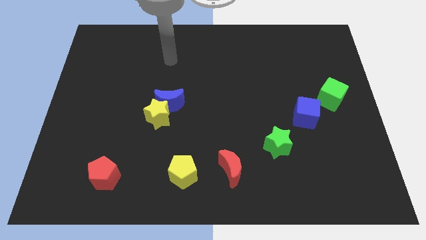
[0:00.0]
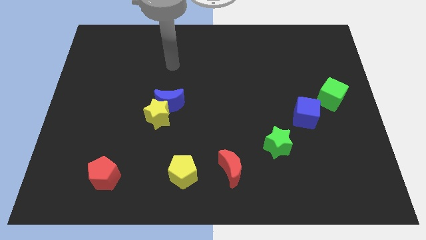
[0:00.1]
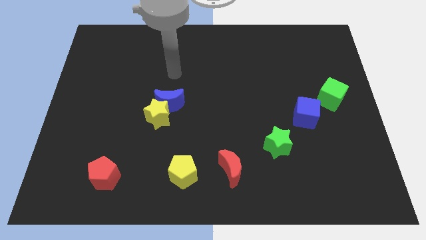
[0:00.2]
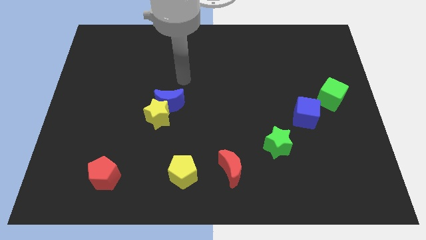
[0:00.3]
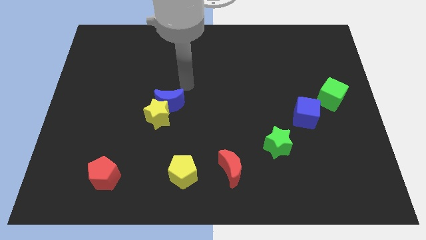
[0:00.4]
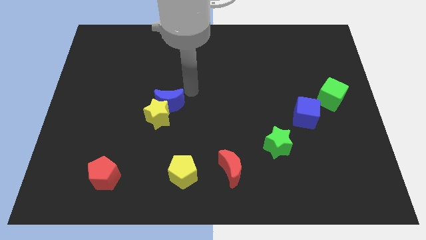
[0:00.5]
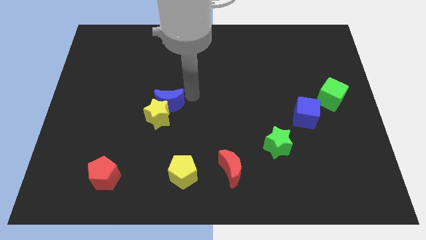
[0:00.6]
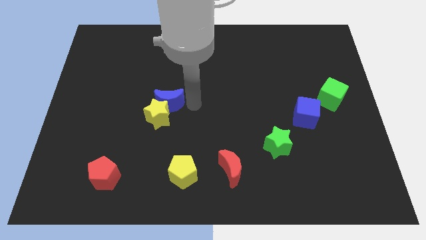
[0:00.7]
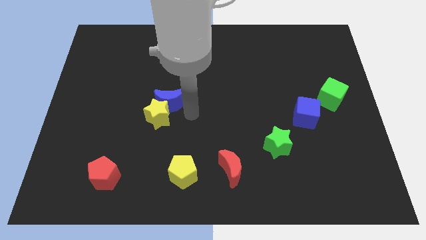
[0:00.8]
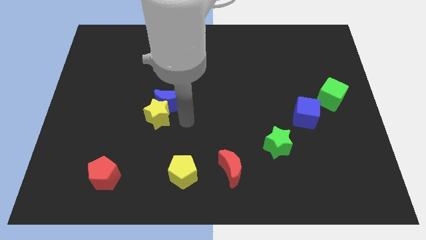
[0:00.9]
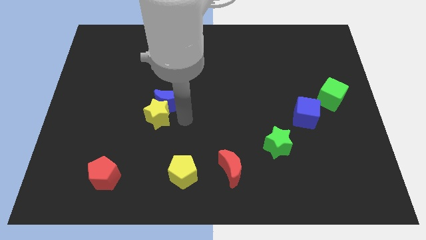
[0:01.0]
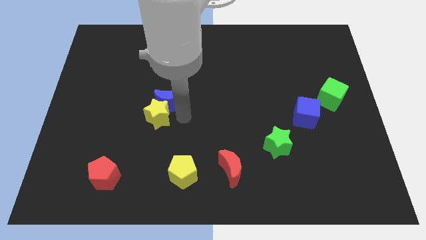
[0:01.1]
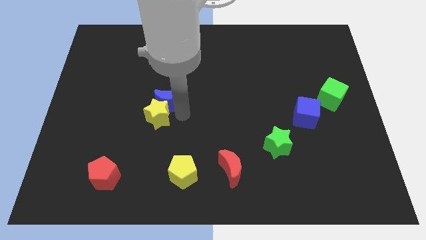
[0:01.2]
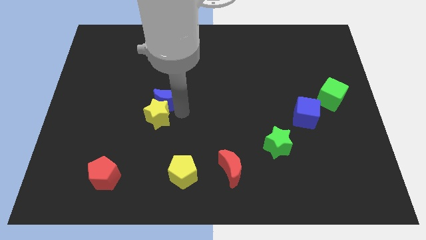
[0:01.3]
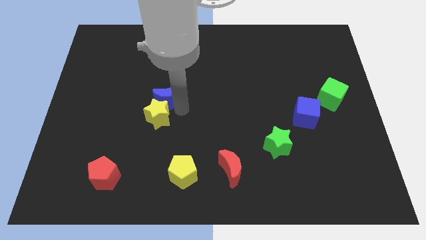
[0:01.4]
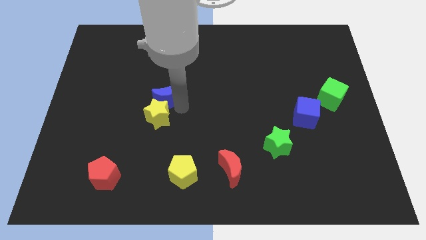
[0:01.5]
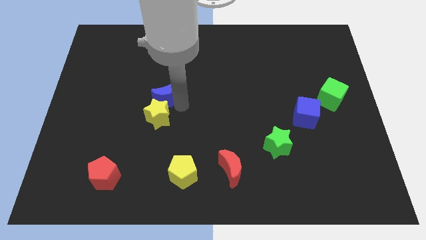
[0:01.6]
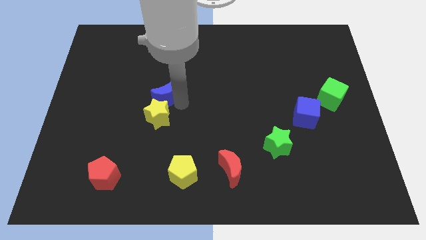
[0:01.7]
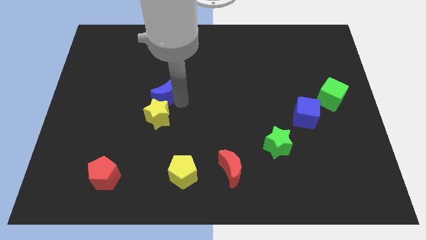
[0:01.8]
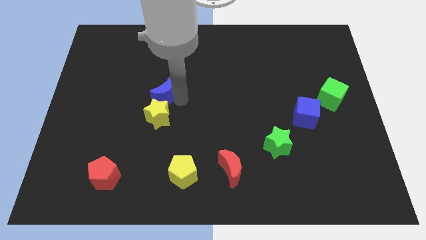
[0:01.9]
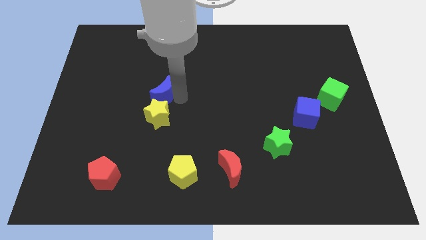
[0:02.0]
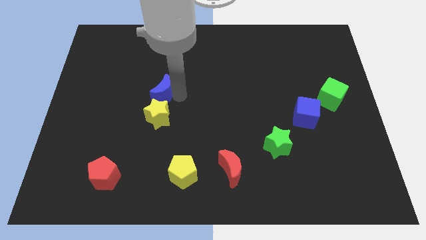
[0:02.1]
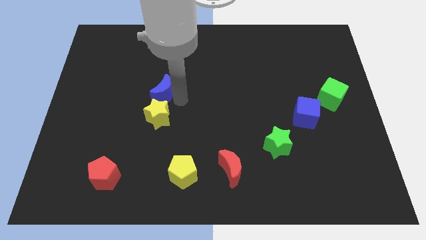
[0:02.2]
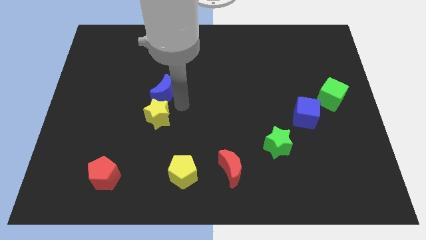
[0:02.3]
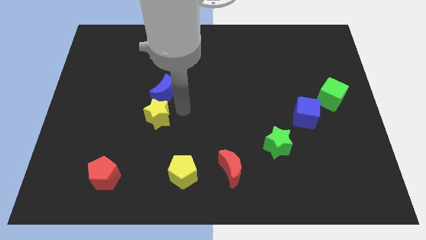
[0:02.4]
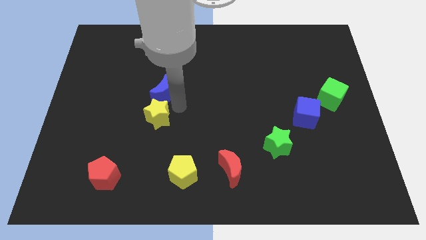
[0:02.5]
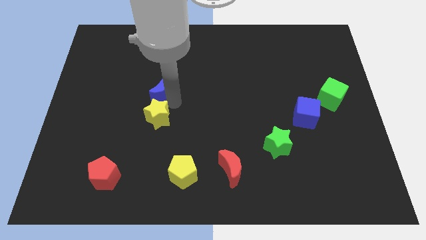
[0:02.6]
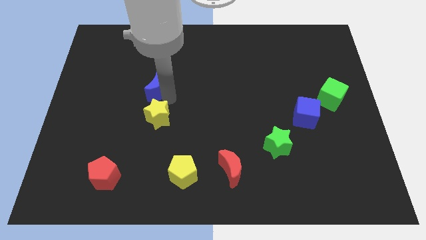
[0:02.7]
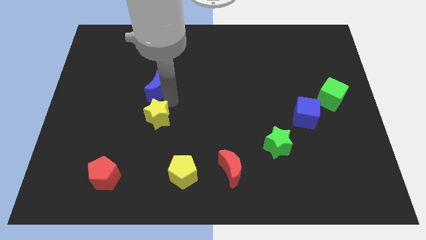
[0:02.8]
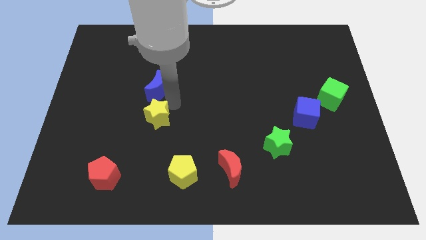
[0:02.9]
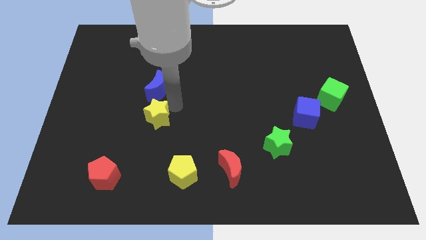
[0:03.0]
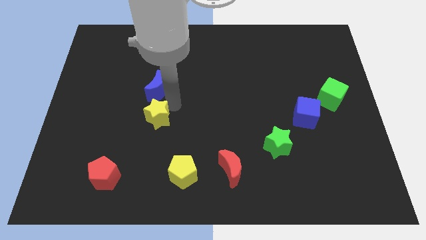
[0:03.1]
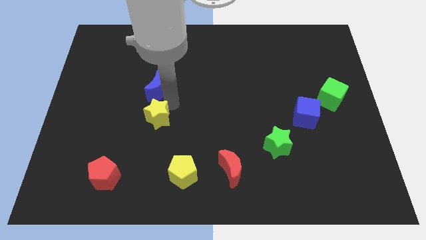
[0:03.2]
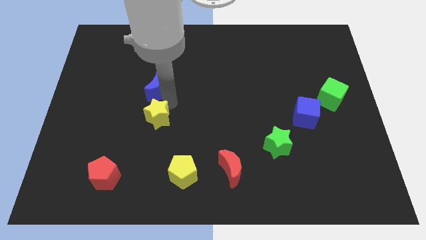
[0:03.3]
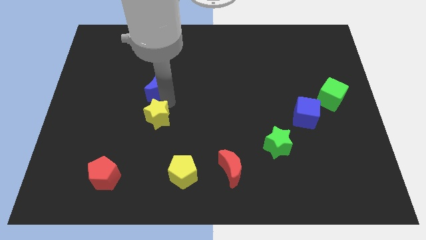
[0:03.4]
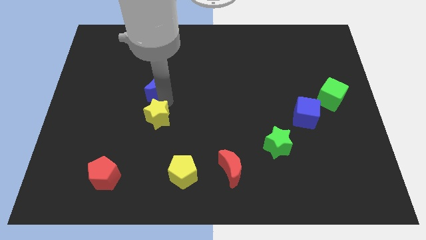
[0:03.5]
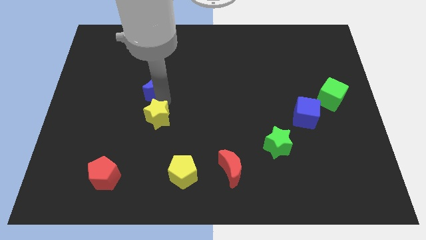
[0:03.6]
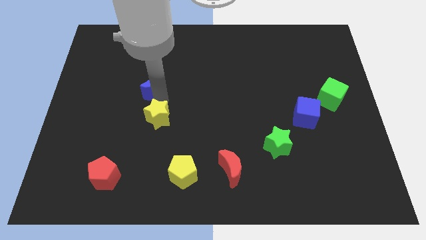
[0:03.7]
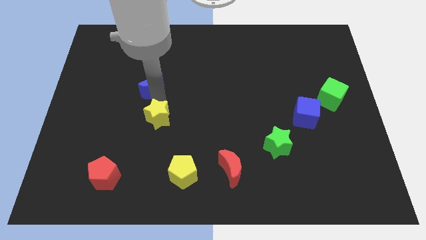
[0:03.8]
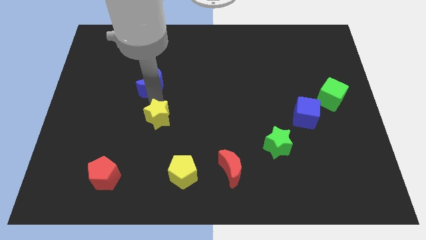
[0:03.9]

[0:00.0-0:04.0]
push the blue moon a little up and to the left

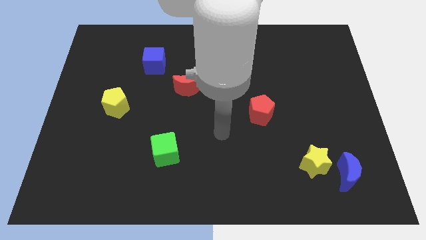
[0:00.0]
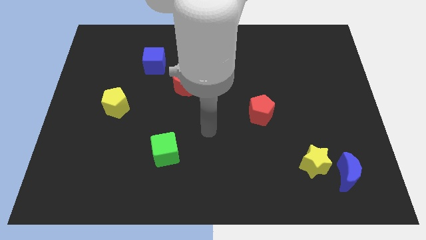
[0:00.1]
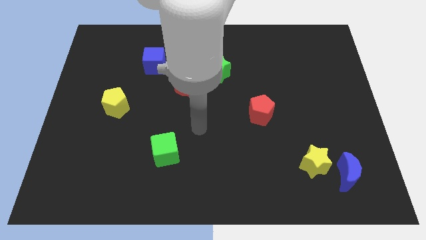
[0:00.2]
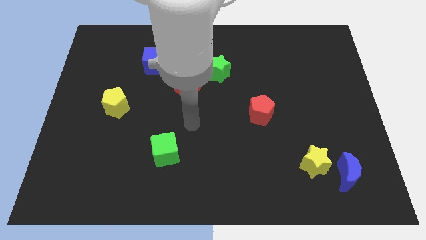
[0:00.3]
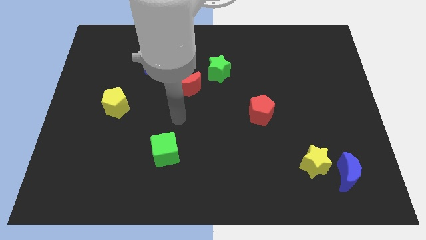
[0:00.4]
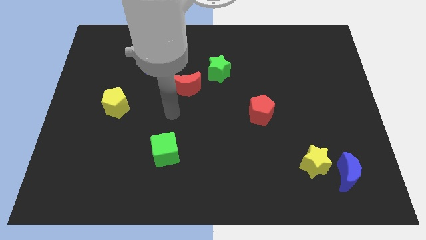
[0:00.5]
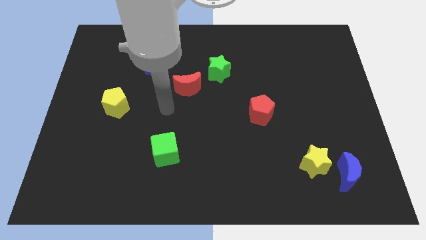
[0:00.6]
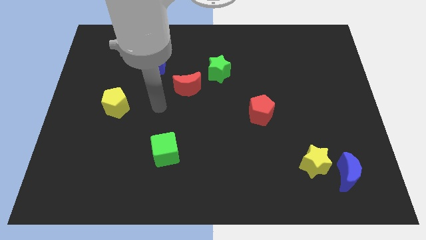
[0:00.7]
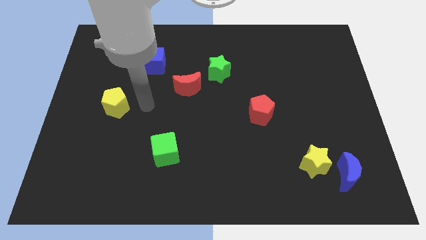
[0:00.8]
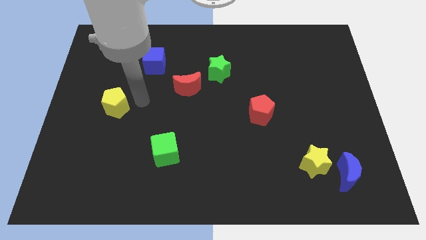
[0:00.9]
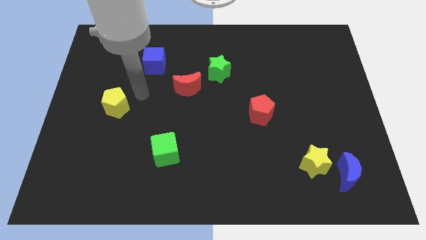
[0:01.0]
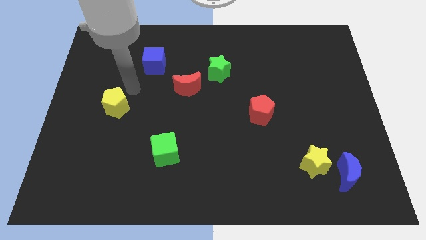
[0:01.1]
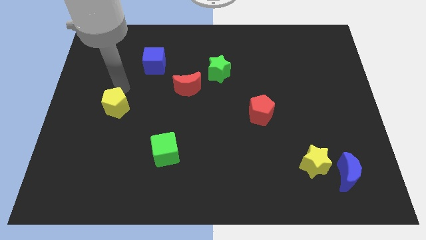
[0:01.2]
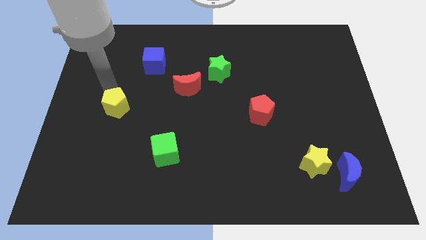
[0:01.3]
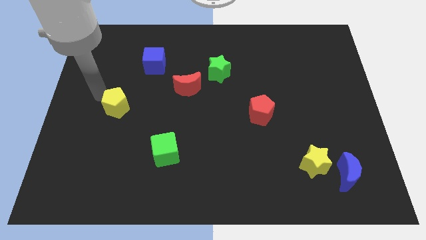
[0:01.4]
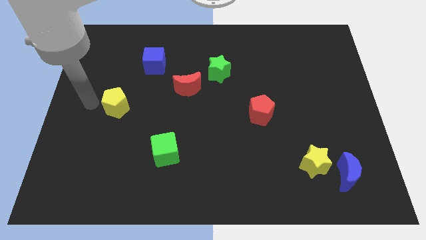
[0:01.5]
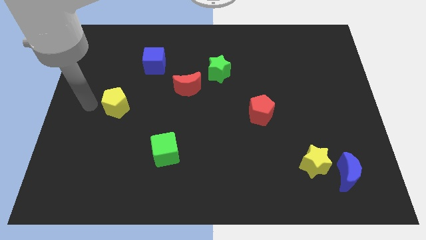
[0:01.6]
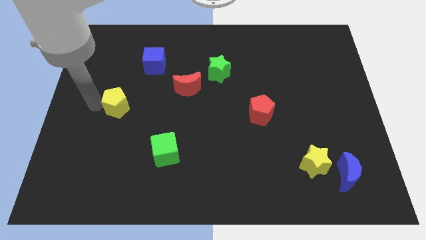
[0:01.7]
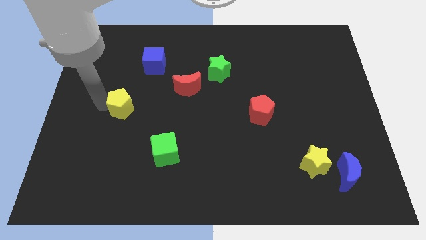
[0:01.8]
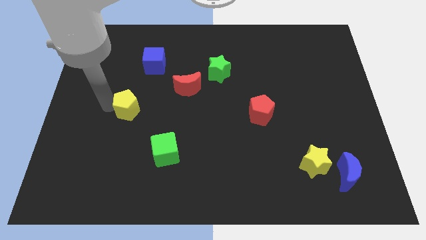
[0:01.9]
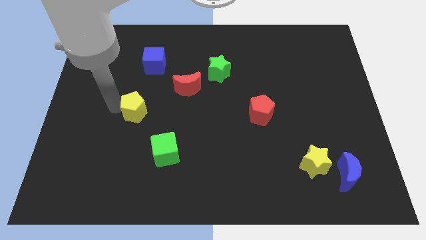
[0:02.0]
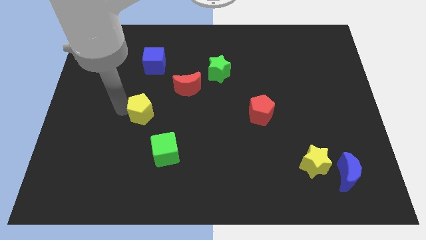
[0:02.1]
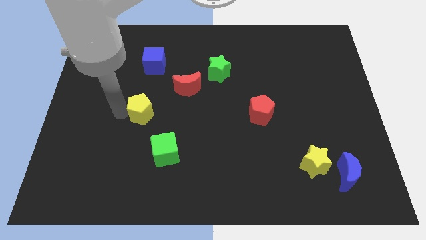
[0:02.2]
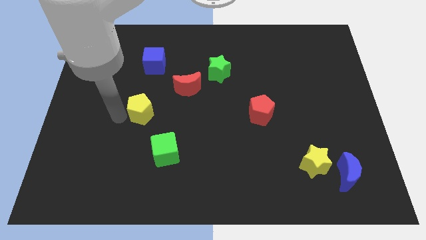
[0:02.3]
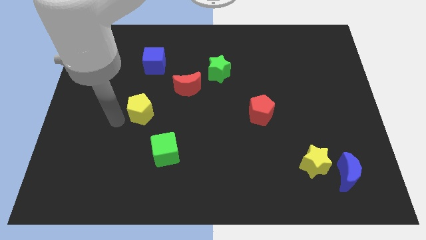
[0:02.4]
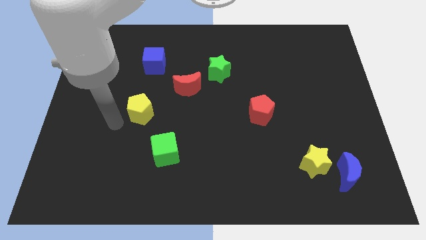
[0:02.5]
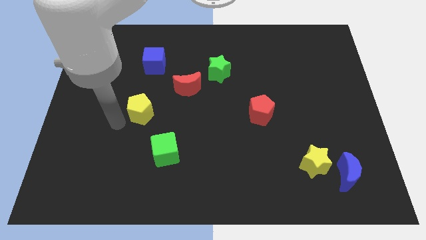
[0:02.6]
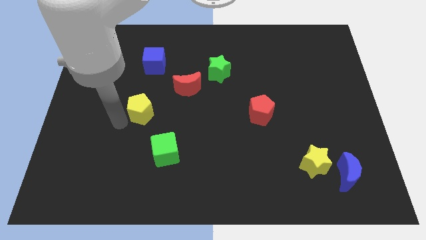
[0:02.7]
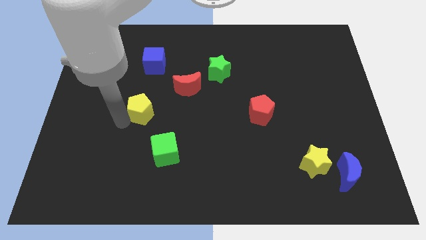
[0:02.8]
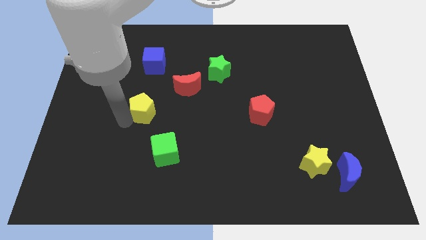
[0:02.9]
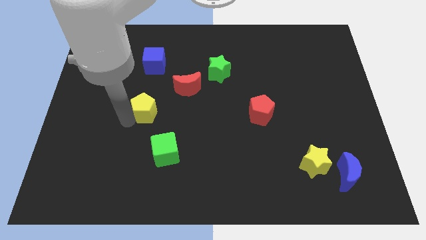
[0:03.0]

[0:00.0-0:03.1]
push the yellow pentagon to the right a bit

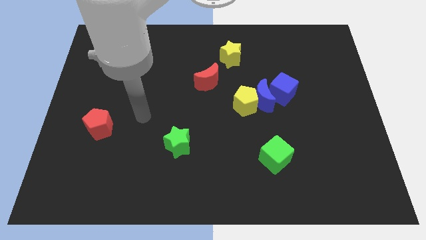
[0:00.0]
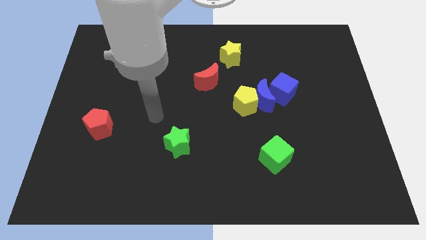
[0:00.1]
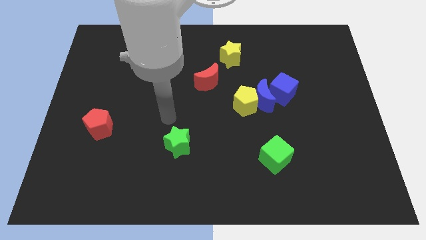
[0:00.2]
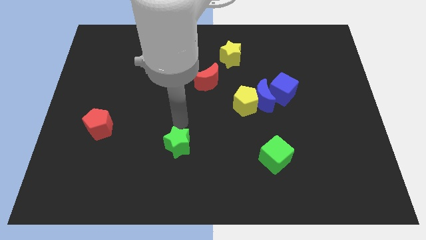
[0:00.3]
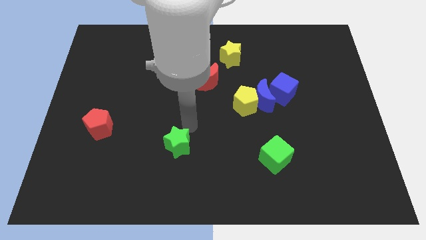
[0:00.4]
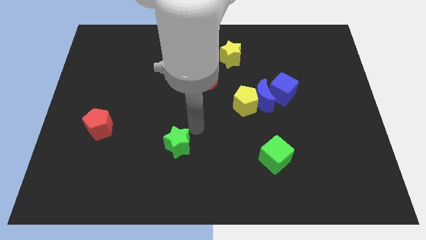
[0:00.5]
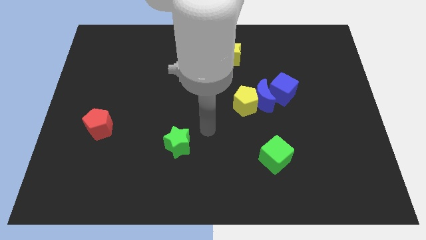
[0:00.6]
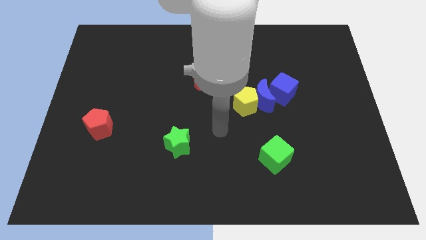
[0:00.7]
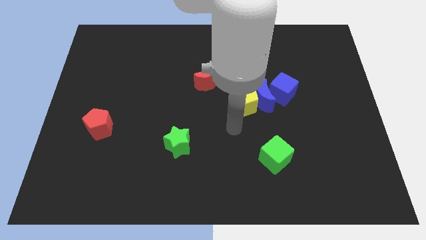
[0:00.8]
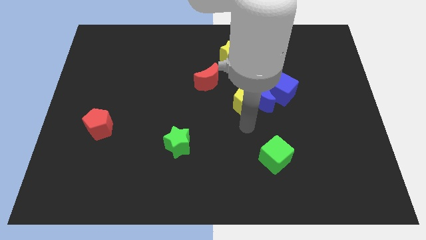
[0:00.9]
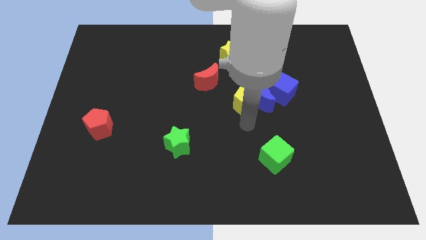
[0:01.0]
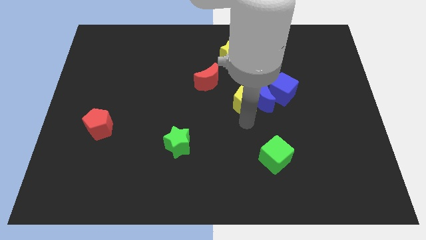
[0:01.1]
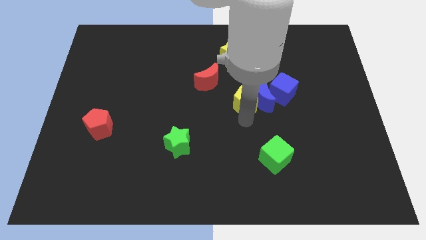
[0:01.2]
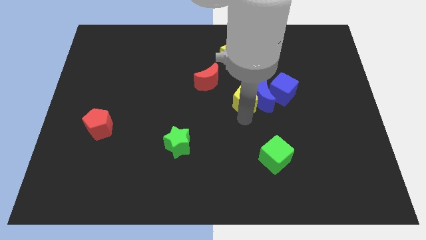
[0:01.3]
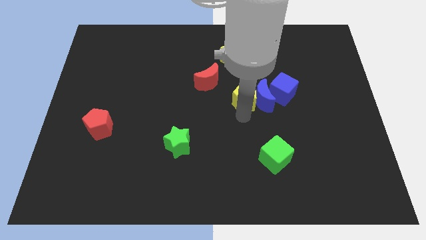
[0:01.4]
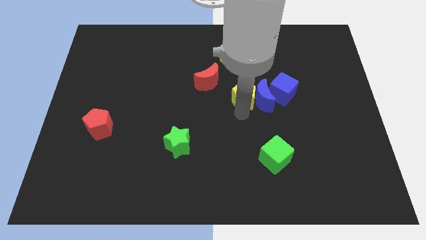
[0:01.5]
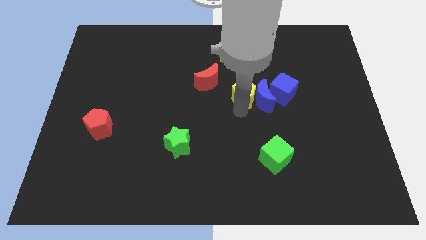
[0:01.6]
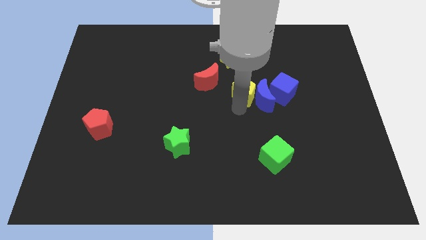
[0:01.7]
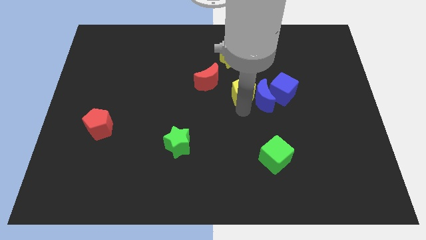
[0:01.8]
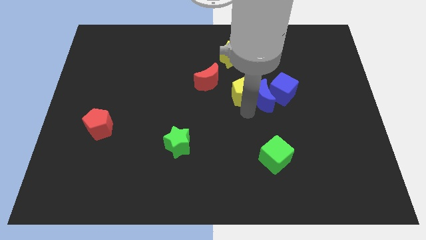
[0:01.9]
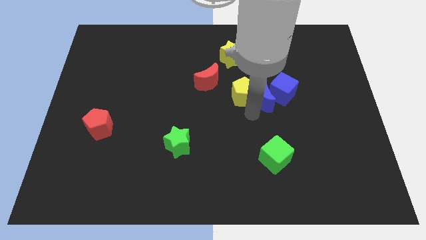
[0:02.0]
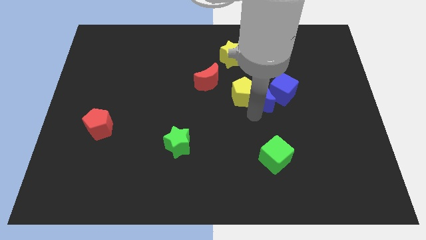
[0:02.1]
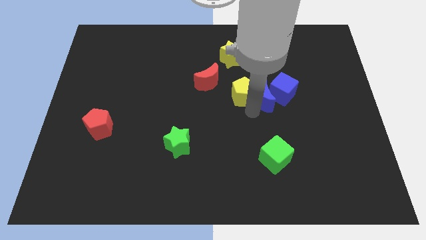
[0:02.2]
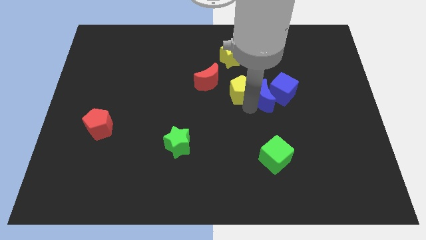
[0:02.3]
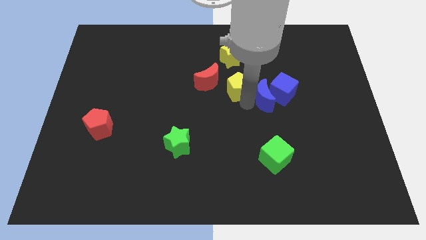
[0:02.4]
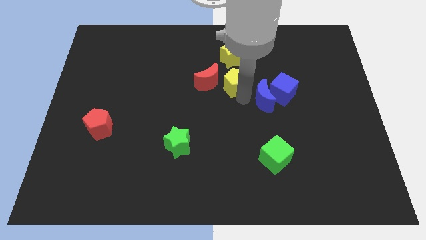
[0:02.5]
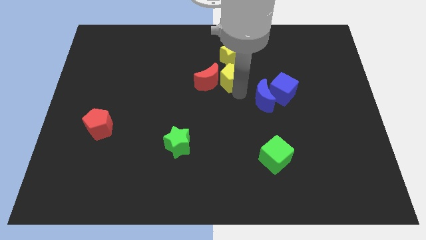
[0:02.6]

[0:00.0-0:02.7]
push the yellow pentagon upwards and to the left slightly
